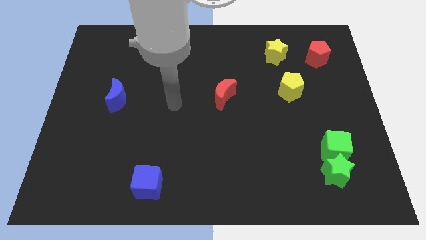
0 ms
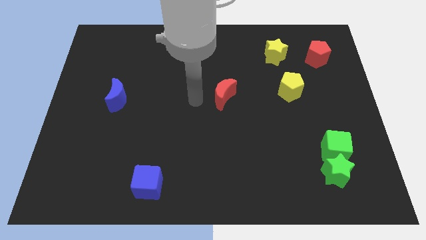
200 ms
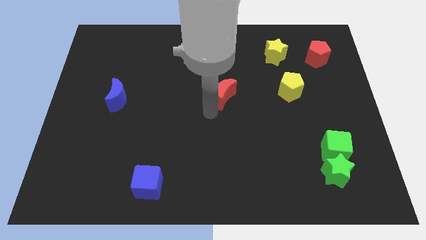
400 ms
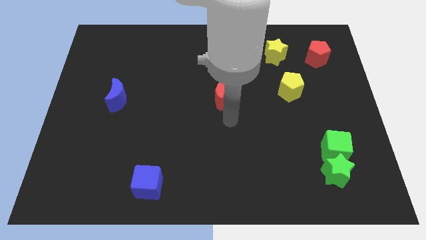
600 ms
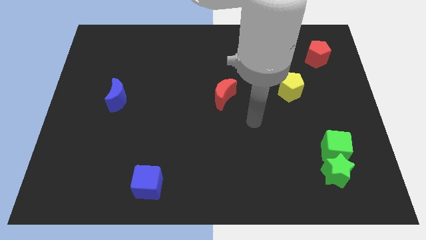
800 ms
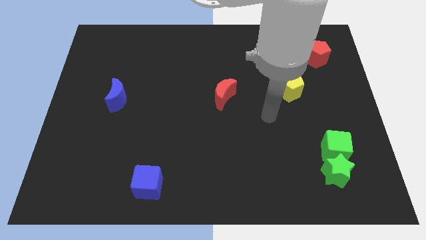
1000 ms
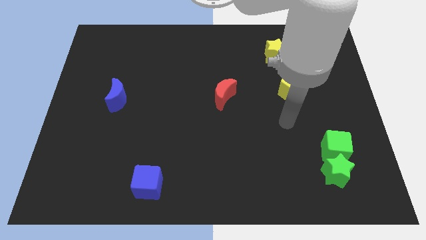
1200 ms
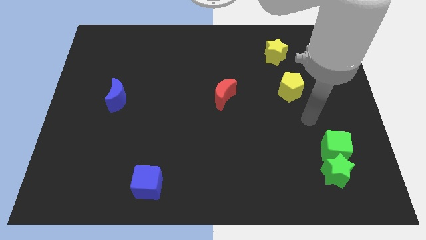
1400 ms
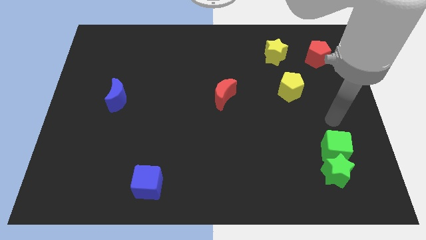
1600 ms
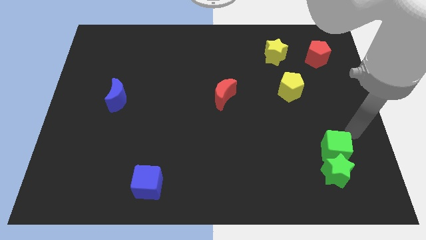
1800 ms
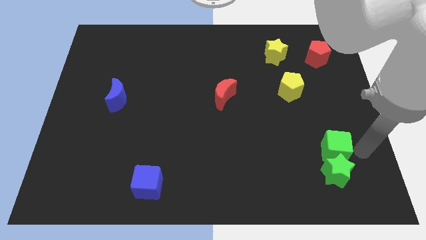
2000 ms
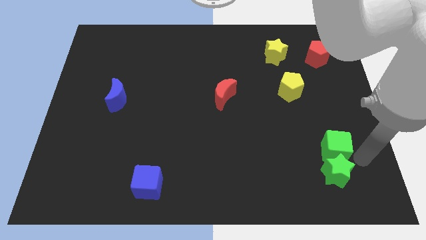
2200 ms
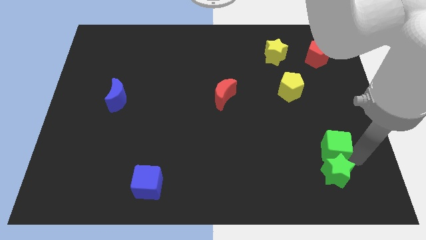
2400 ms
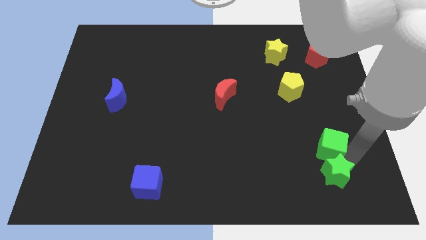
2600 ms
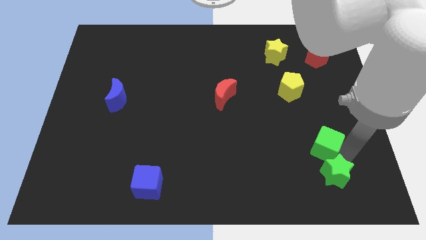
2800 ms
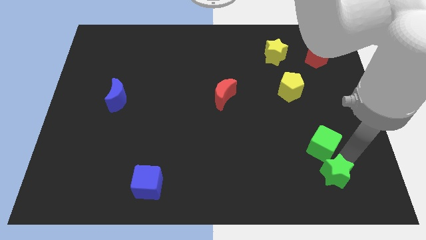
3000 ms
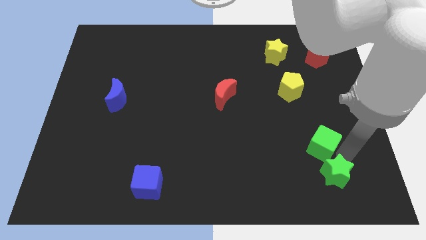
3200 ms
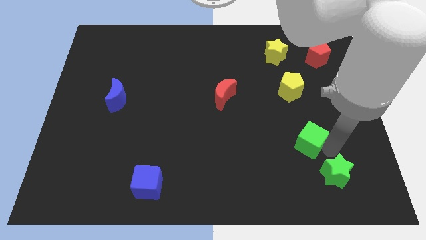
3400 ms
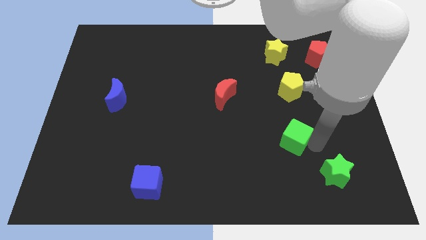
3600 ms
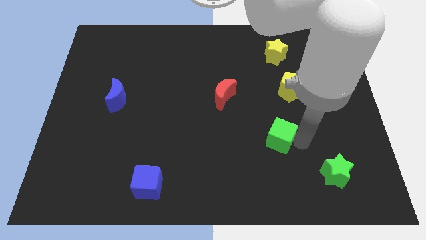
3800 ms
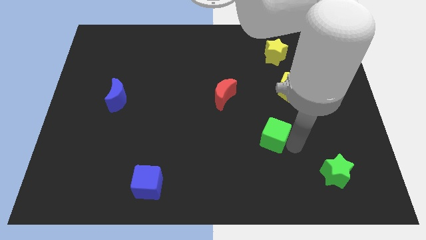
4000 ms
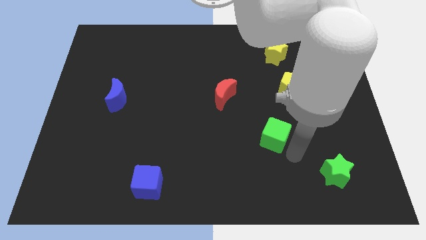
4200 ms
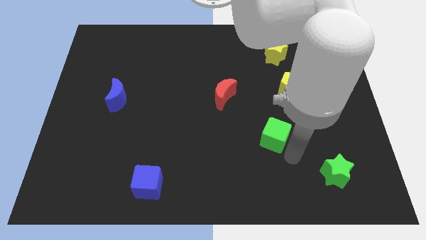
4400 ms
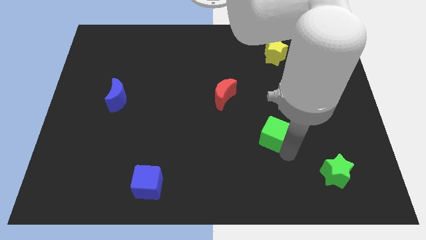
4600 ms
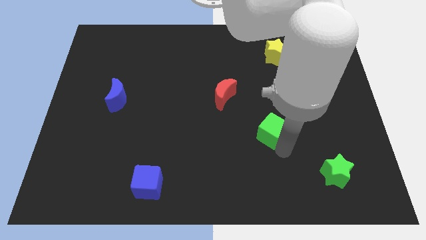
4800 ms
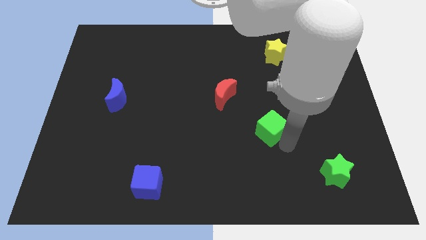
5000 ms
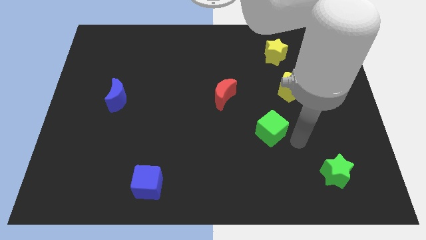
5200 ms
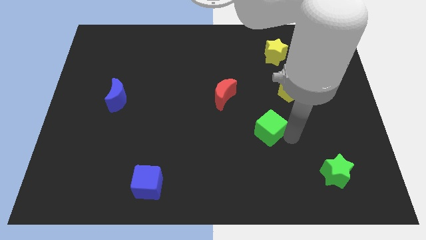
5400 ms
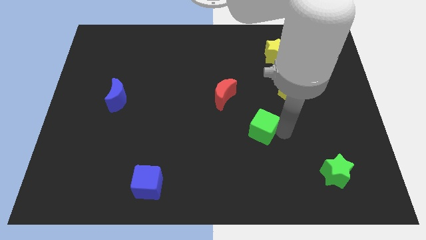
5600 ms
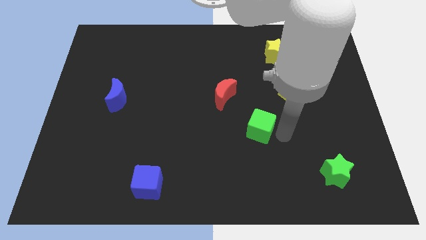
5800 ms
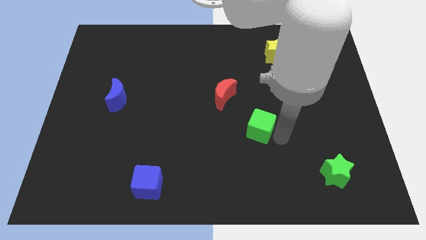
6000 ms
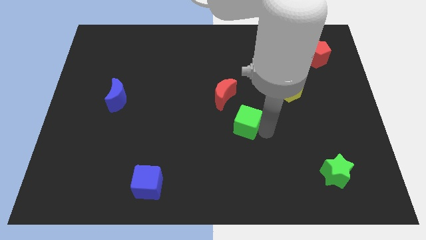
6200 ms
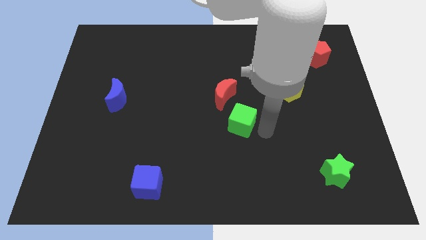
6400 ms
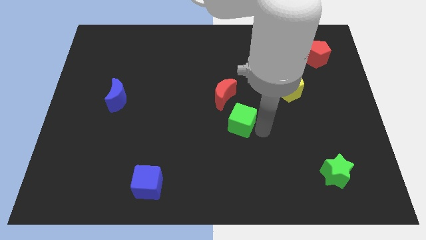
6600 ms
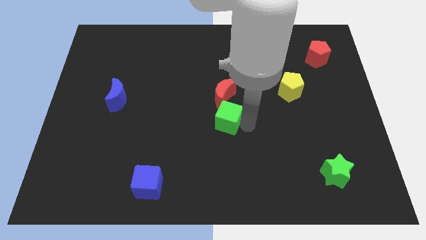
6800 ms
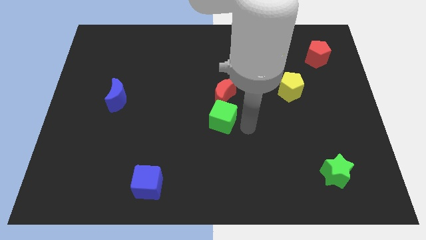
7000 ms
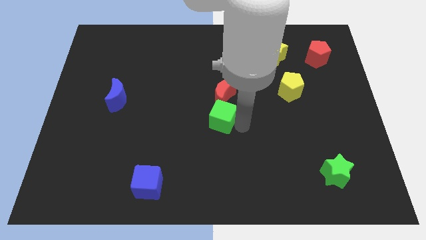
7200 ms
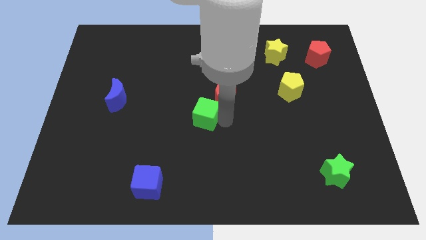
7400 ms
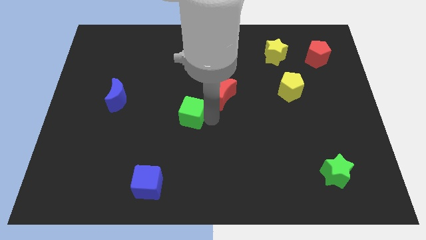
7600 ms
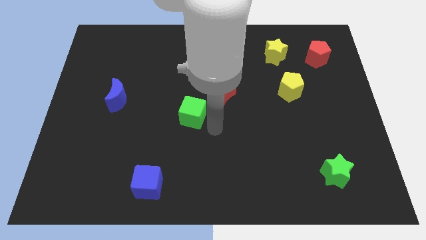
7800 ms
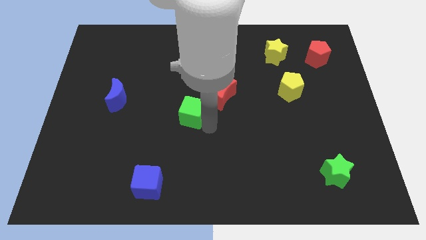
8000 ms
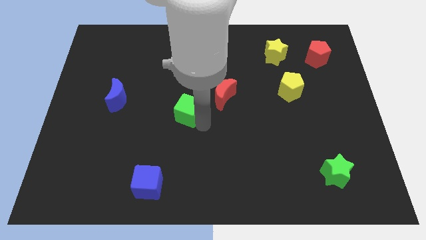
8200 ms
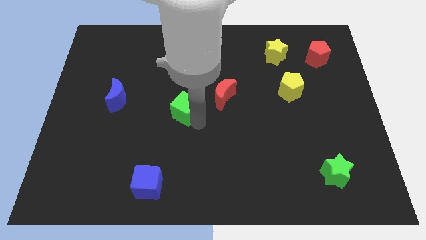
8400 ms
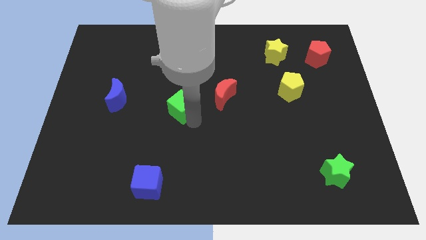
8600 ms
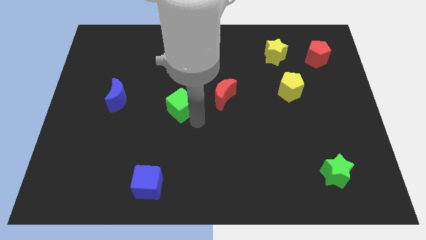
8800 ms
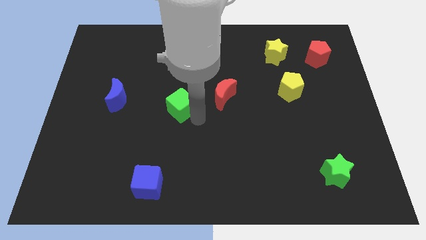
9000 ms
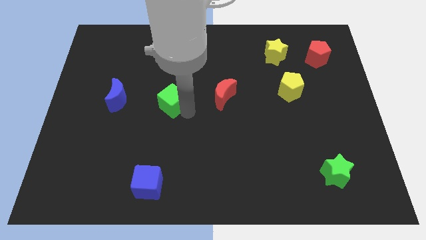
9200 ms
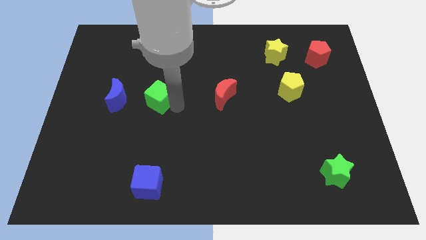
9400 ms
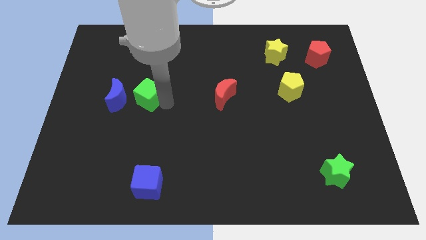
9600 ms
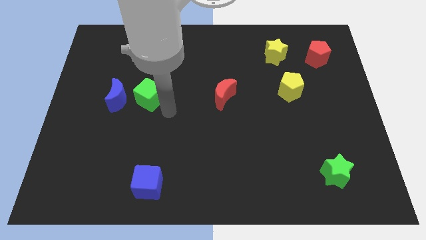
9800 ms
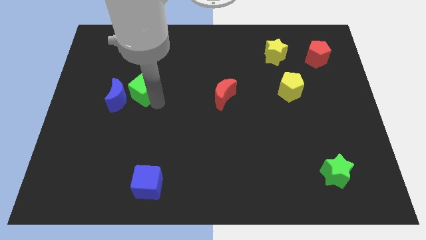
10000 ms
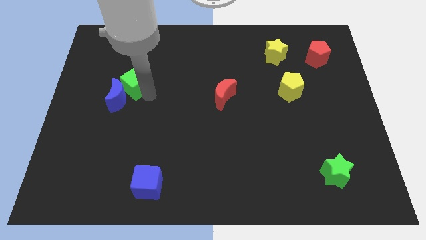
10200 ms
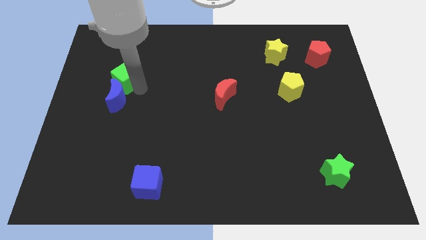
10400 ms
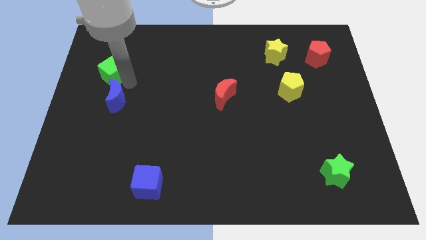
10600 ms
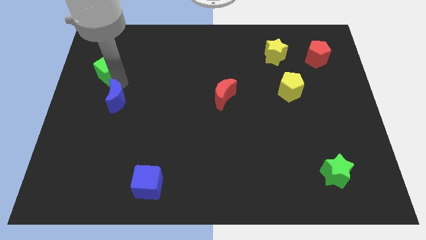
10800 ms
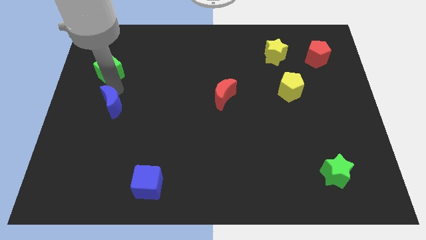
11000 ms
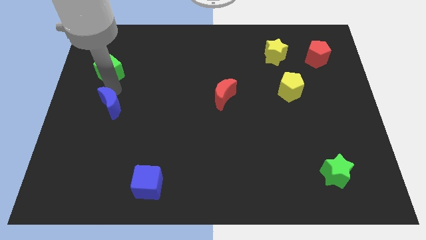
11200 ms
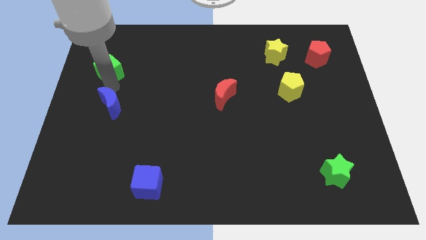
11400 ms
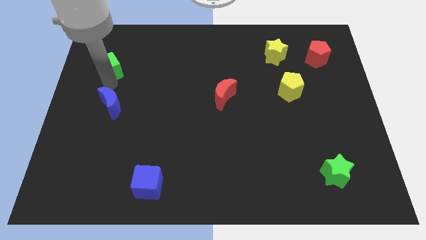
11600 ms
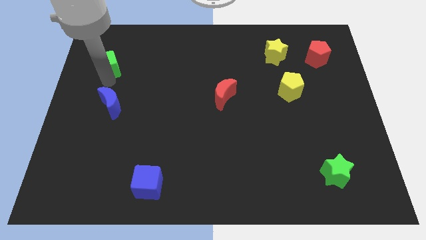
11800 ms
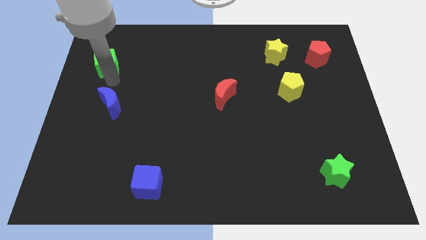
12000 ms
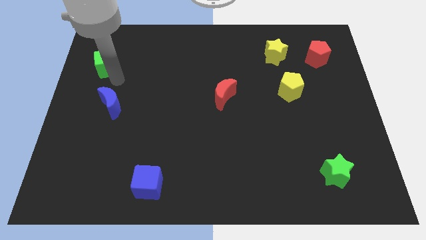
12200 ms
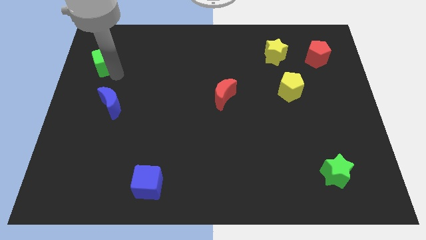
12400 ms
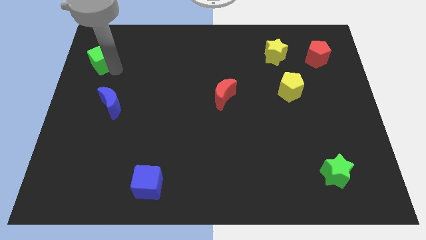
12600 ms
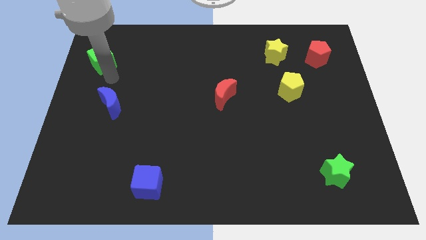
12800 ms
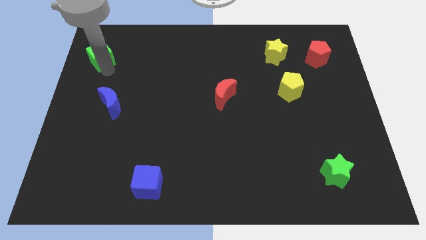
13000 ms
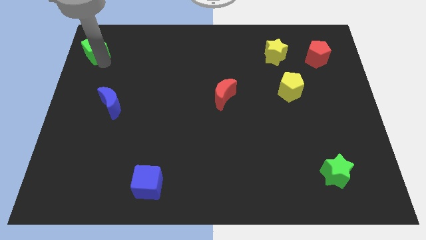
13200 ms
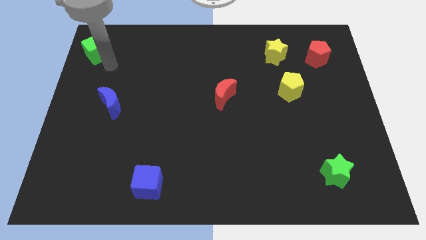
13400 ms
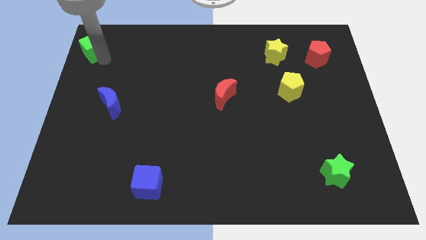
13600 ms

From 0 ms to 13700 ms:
put the green cube to the upper left corner
